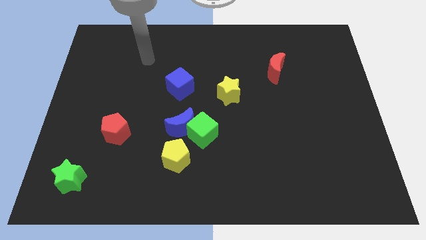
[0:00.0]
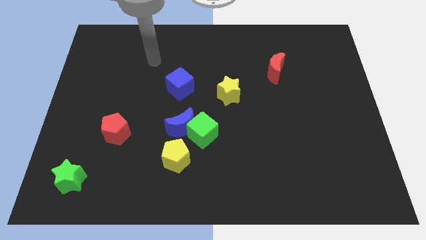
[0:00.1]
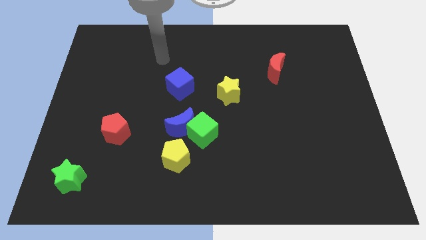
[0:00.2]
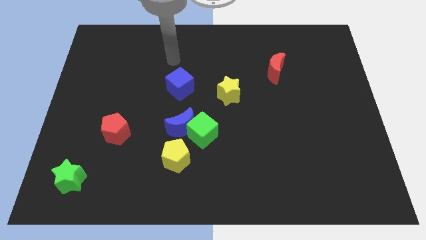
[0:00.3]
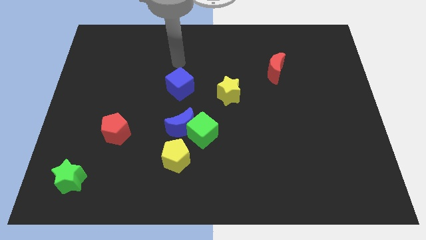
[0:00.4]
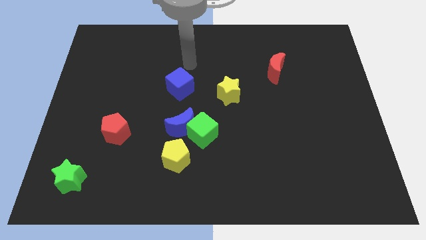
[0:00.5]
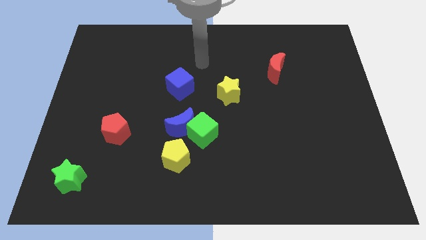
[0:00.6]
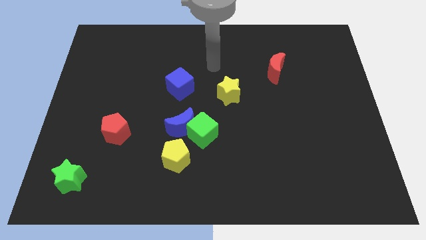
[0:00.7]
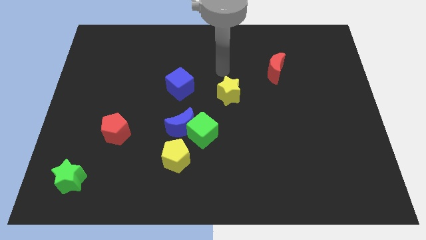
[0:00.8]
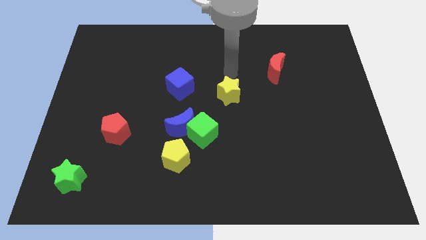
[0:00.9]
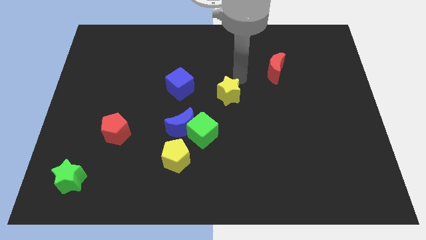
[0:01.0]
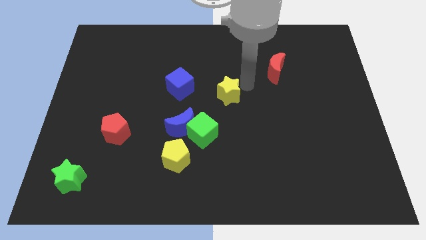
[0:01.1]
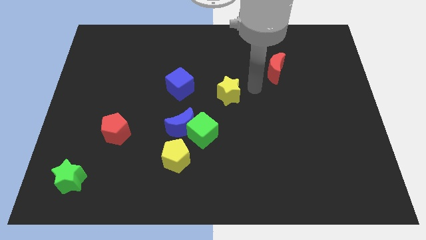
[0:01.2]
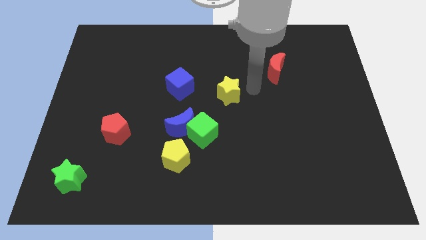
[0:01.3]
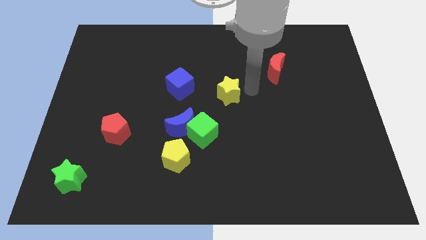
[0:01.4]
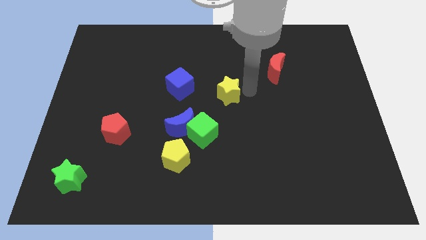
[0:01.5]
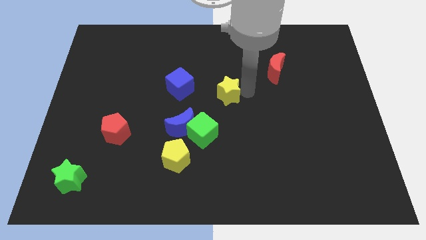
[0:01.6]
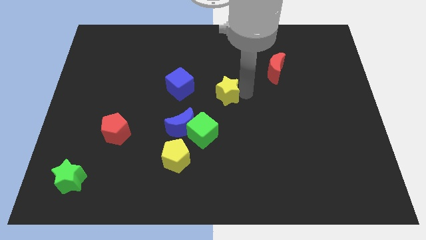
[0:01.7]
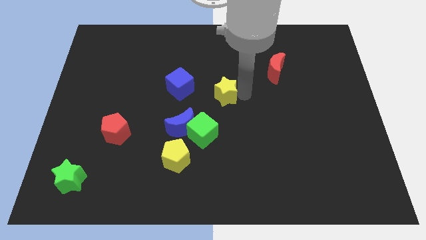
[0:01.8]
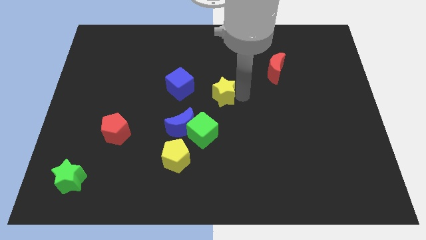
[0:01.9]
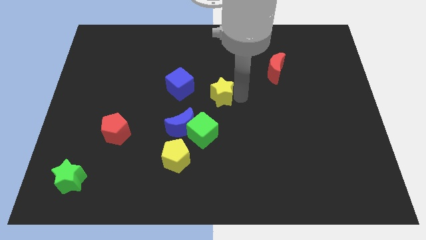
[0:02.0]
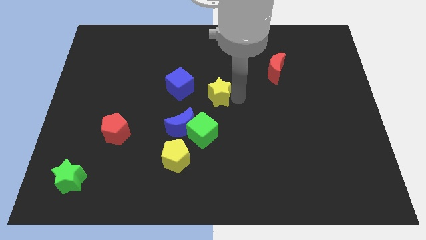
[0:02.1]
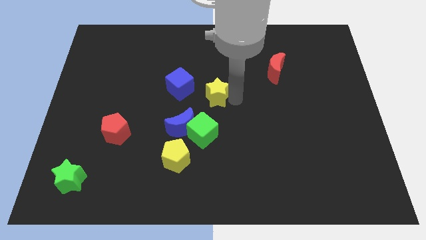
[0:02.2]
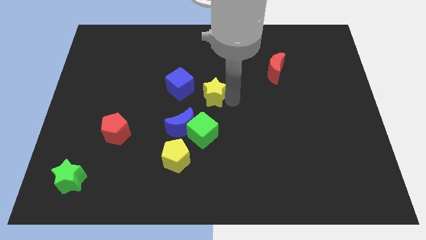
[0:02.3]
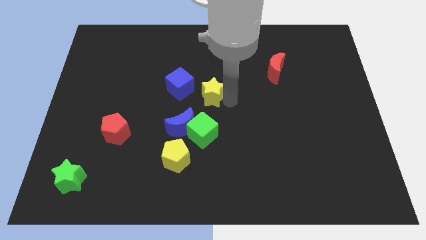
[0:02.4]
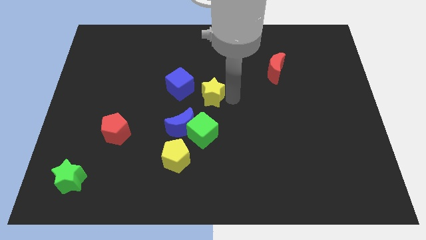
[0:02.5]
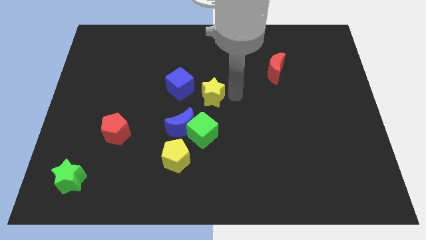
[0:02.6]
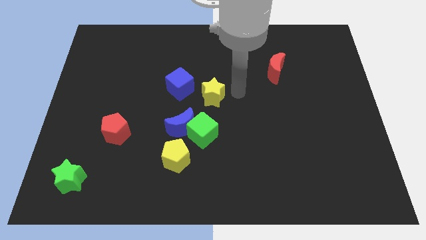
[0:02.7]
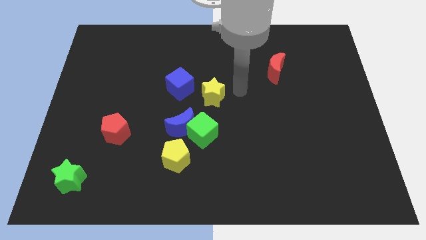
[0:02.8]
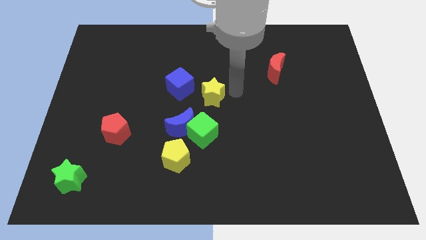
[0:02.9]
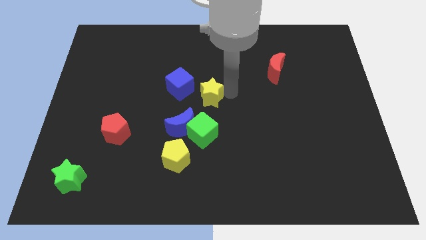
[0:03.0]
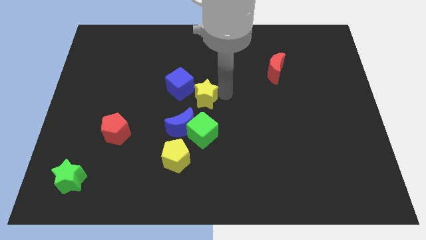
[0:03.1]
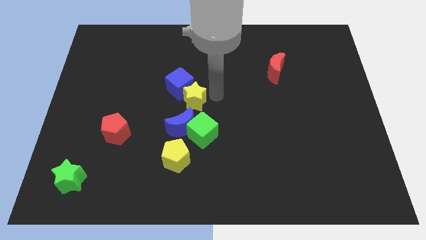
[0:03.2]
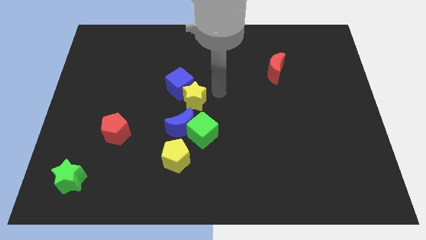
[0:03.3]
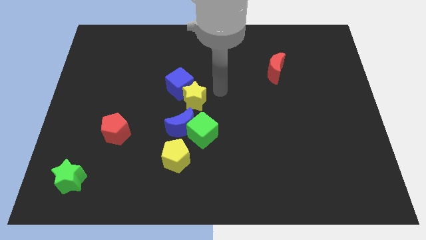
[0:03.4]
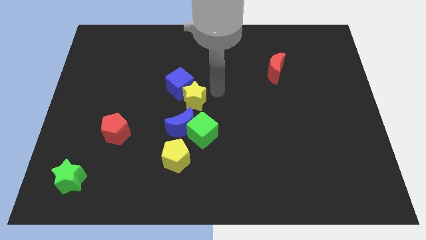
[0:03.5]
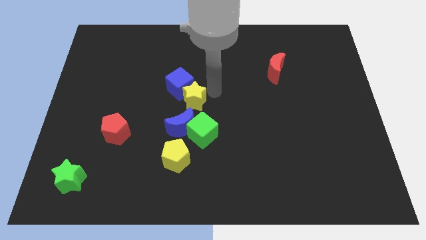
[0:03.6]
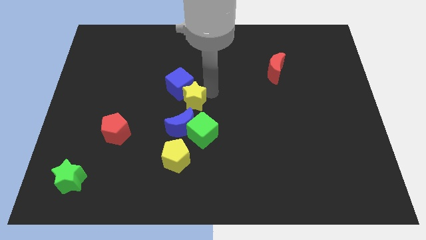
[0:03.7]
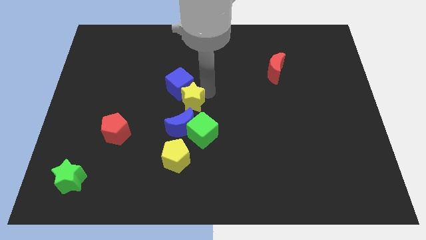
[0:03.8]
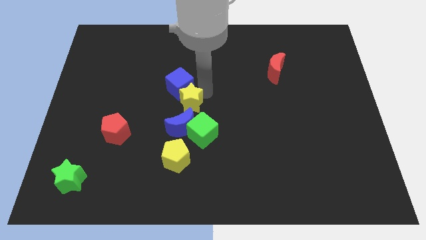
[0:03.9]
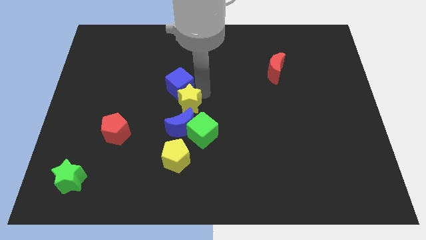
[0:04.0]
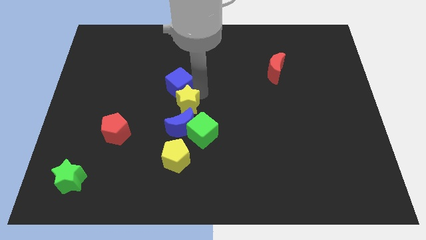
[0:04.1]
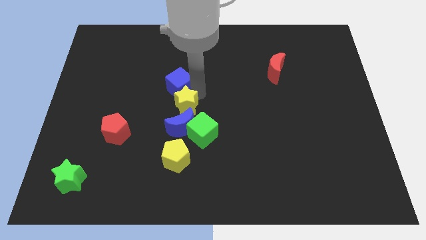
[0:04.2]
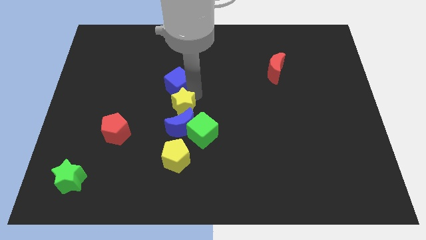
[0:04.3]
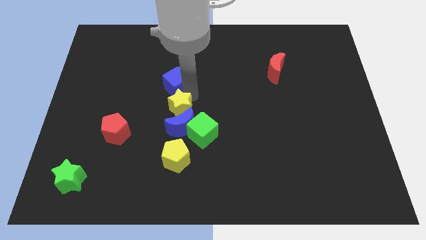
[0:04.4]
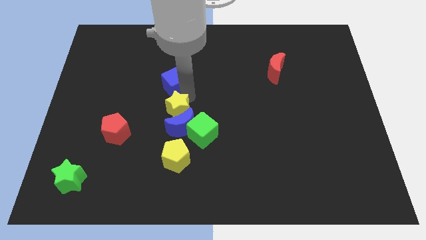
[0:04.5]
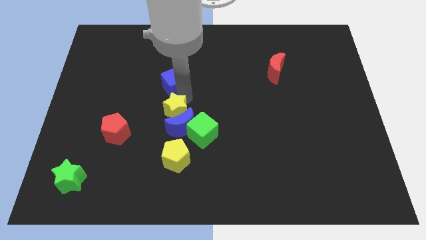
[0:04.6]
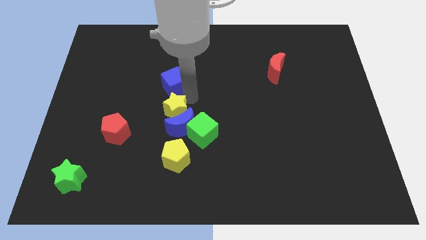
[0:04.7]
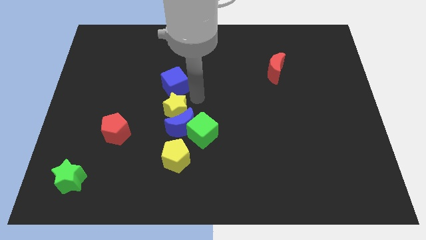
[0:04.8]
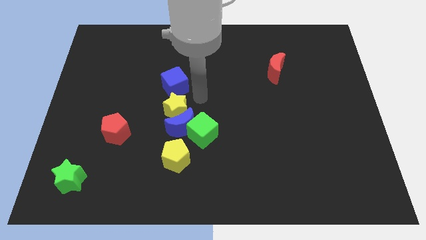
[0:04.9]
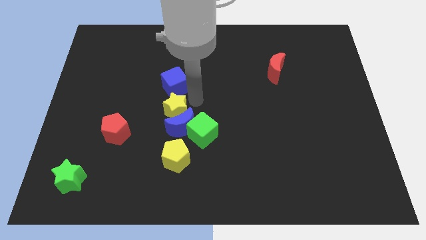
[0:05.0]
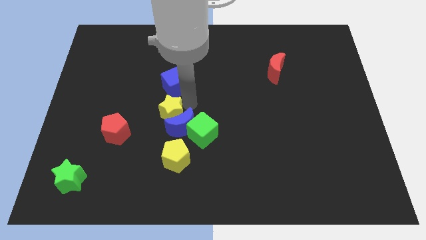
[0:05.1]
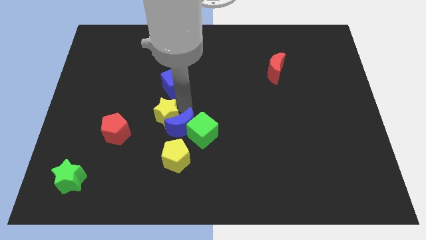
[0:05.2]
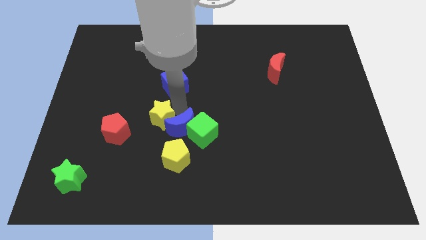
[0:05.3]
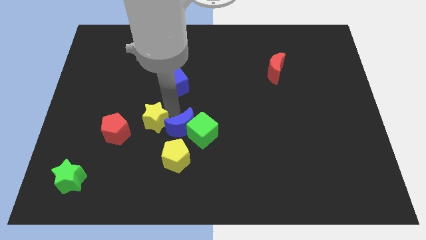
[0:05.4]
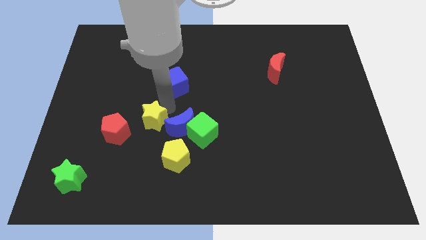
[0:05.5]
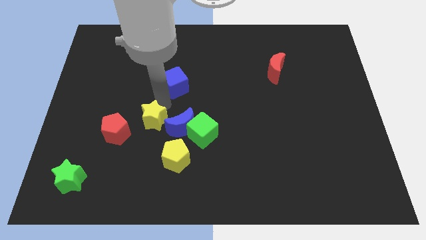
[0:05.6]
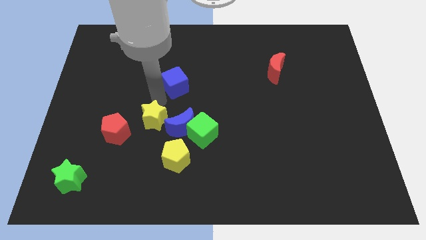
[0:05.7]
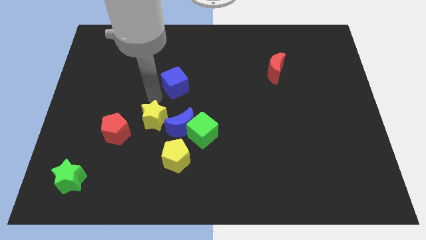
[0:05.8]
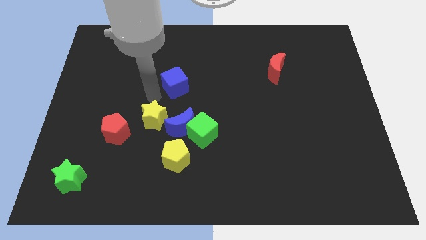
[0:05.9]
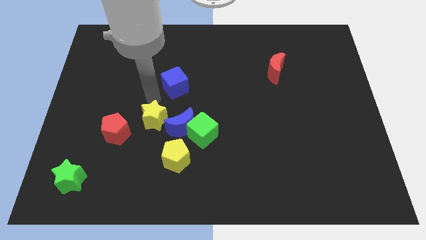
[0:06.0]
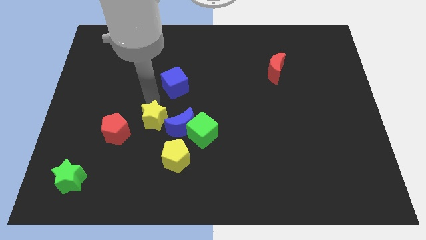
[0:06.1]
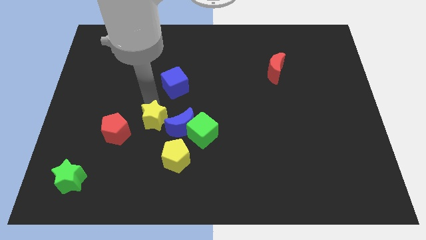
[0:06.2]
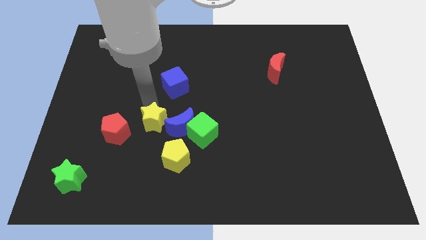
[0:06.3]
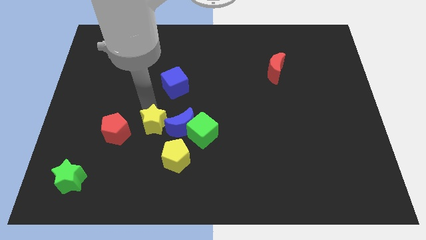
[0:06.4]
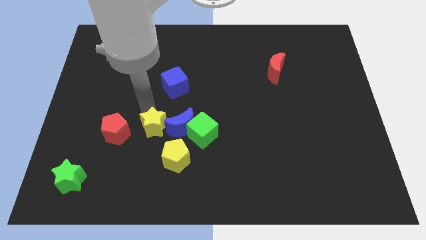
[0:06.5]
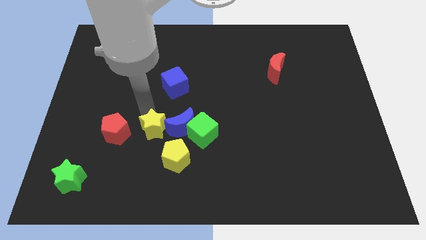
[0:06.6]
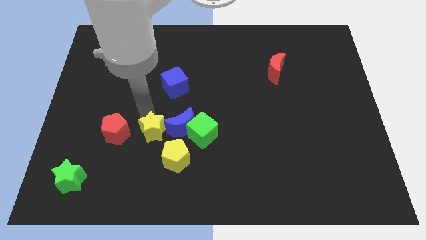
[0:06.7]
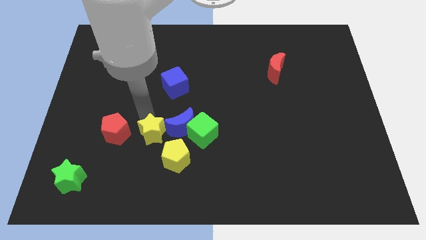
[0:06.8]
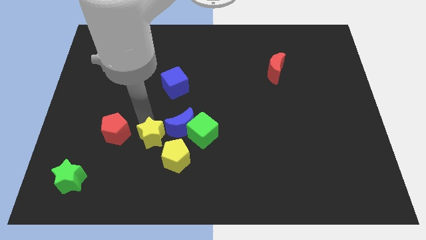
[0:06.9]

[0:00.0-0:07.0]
slide the yellow star down and left

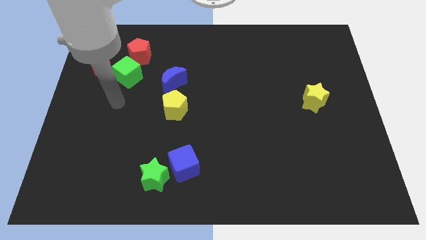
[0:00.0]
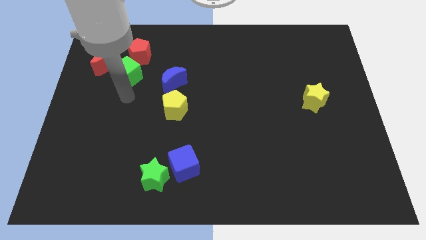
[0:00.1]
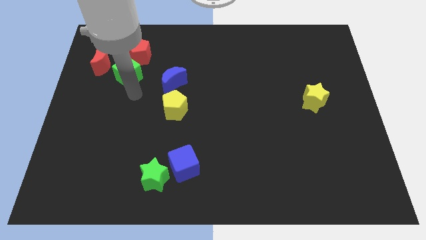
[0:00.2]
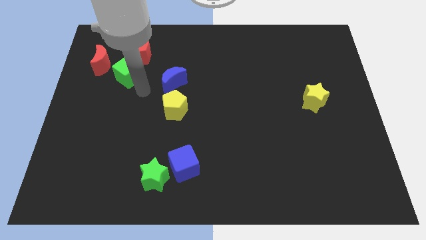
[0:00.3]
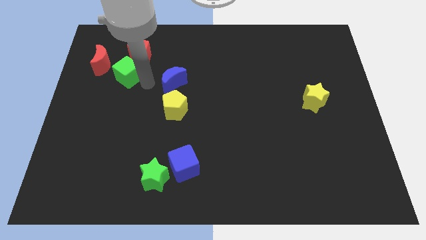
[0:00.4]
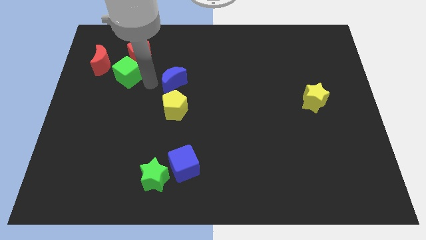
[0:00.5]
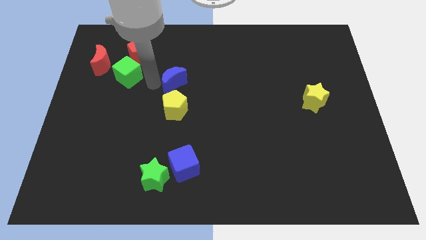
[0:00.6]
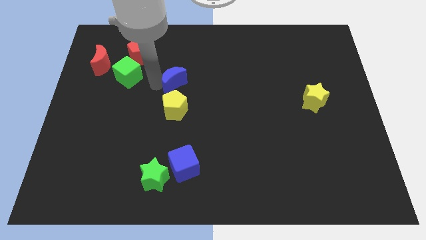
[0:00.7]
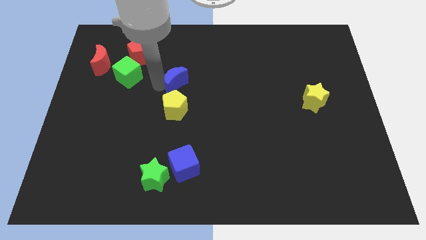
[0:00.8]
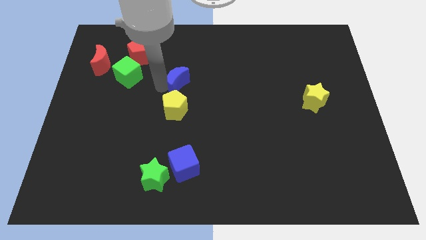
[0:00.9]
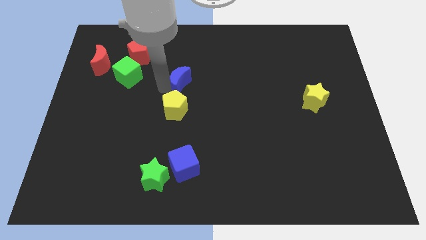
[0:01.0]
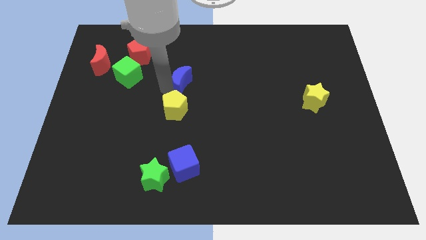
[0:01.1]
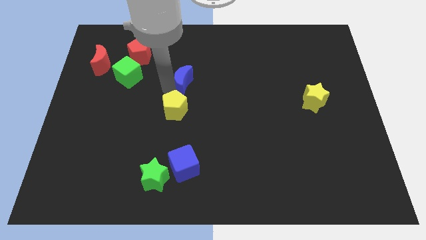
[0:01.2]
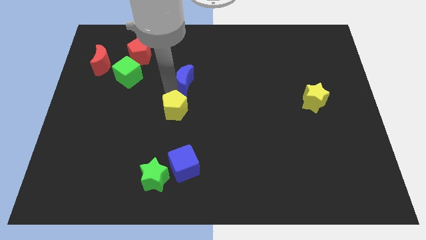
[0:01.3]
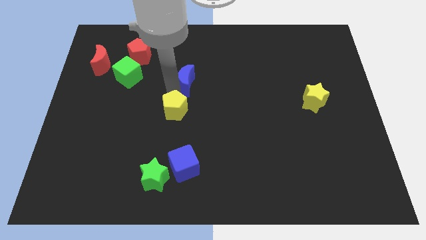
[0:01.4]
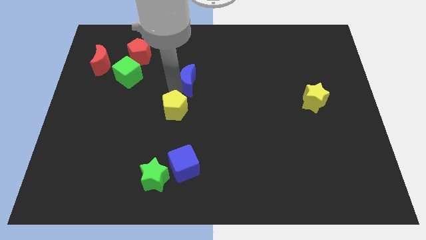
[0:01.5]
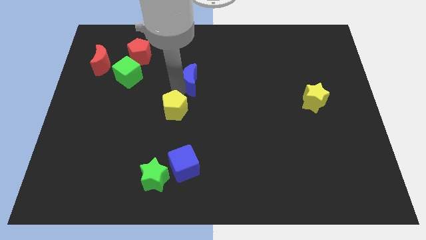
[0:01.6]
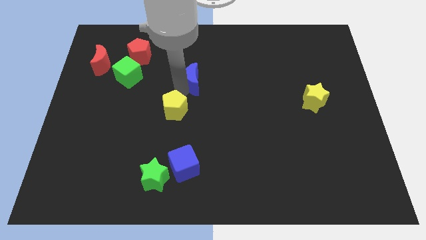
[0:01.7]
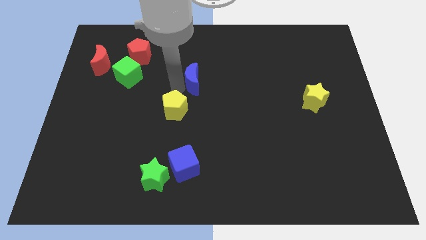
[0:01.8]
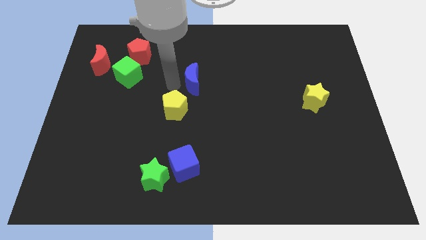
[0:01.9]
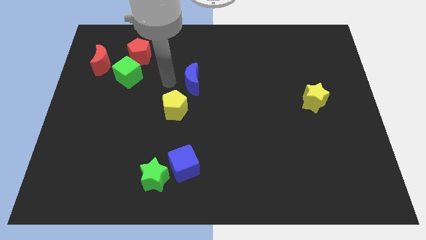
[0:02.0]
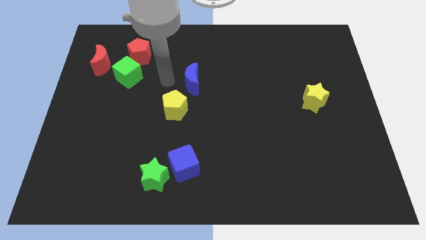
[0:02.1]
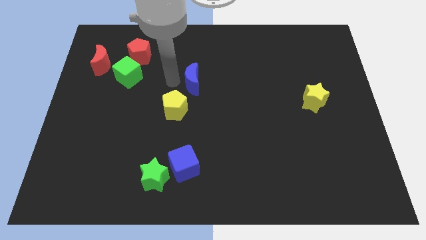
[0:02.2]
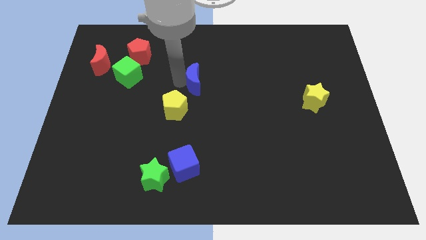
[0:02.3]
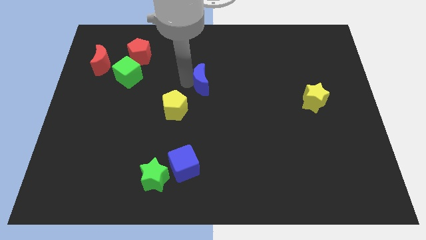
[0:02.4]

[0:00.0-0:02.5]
move the blue moon somewhat to the right
